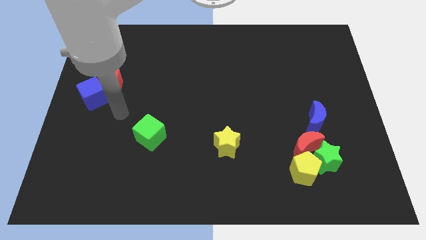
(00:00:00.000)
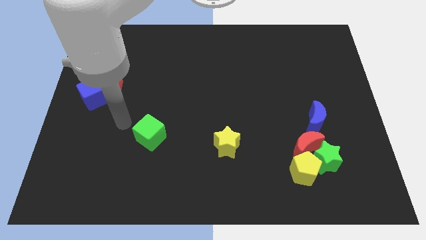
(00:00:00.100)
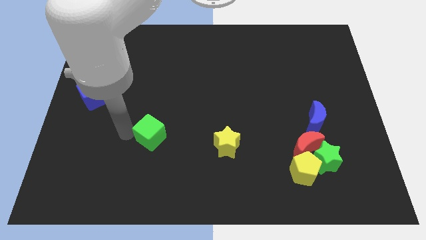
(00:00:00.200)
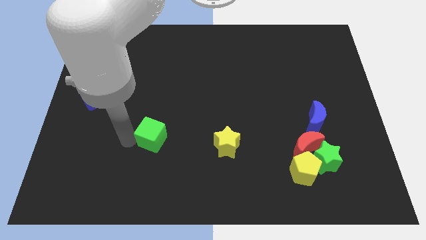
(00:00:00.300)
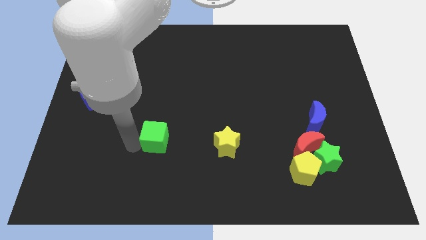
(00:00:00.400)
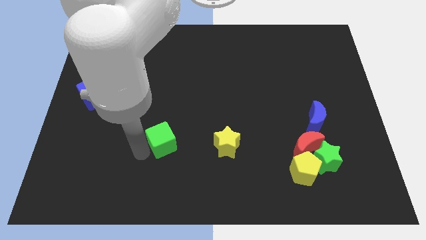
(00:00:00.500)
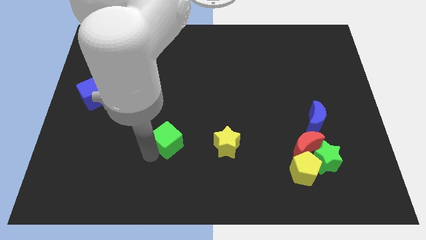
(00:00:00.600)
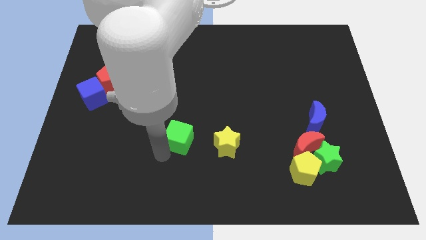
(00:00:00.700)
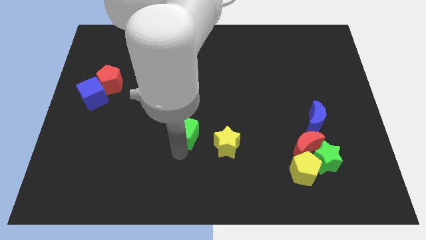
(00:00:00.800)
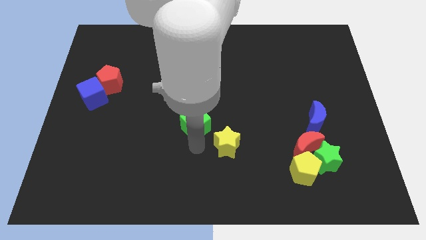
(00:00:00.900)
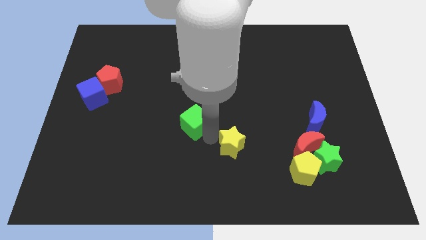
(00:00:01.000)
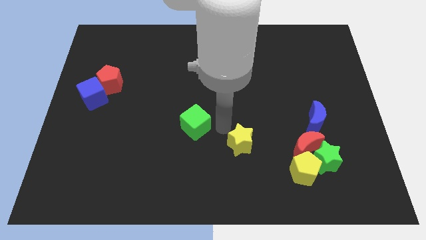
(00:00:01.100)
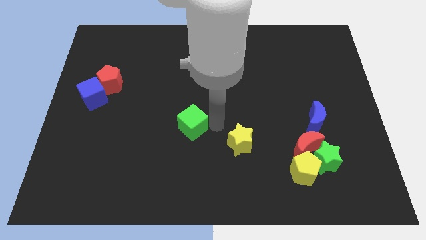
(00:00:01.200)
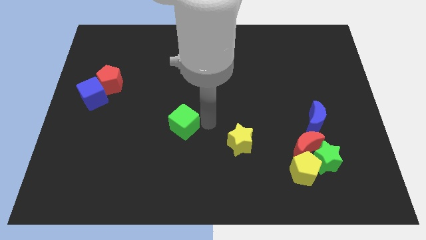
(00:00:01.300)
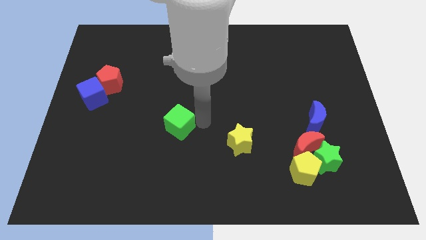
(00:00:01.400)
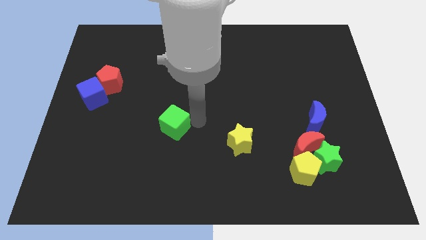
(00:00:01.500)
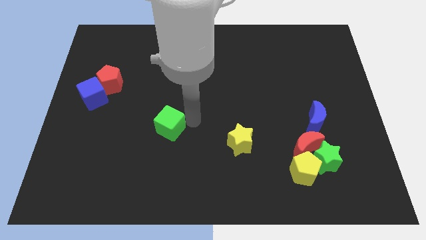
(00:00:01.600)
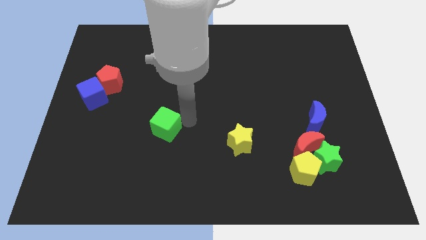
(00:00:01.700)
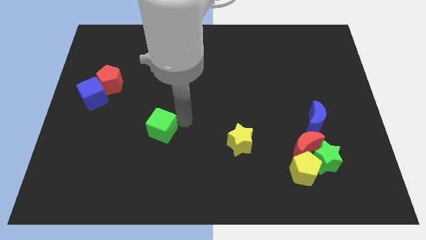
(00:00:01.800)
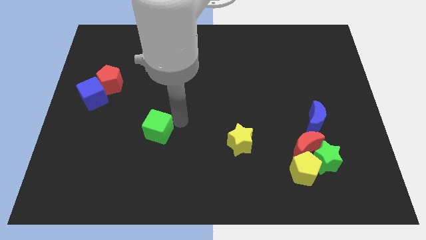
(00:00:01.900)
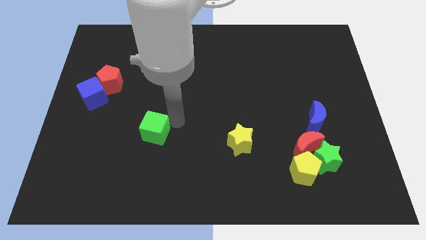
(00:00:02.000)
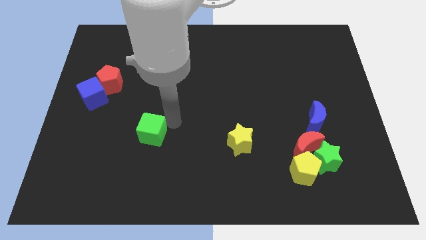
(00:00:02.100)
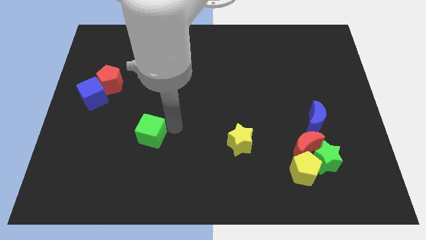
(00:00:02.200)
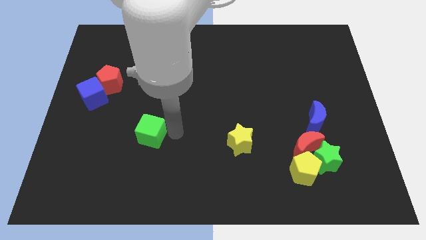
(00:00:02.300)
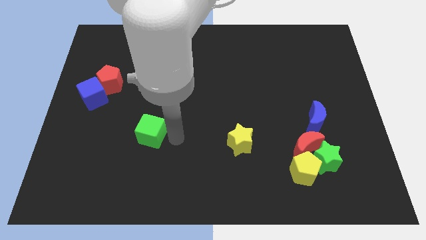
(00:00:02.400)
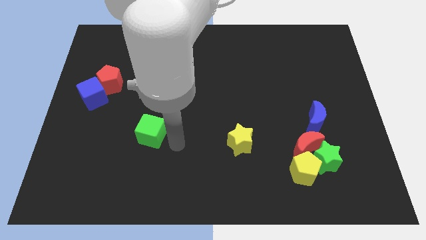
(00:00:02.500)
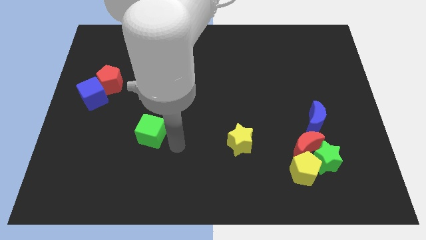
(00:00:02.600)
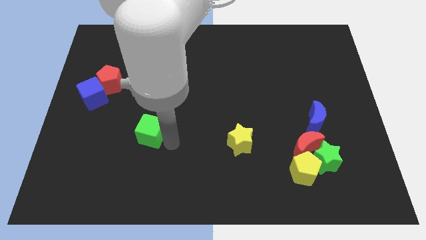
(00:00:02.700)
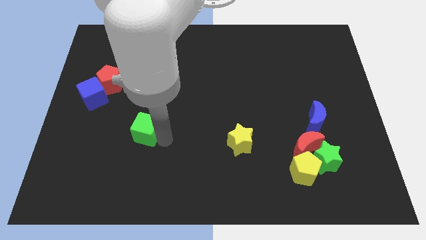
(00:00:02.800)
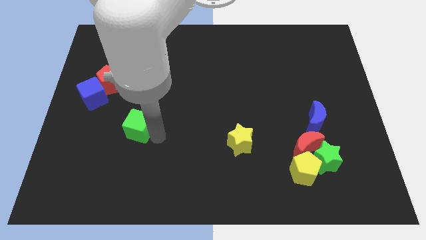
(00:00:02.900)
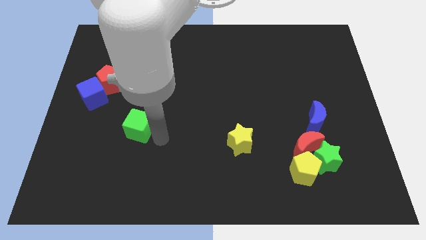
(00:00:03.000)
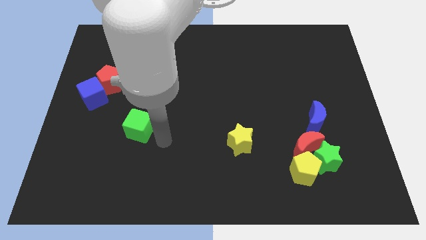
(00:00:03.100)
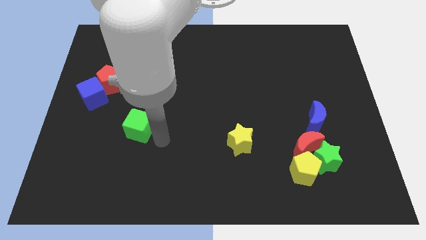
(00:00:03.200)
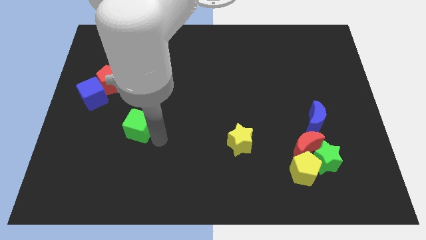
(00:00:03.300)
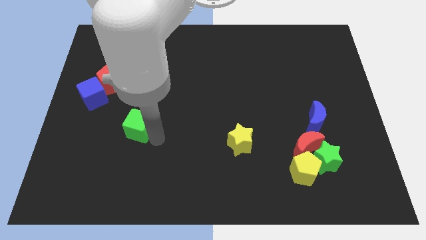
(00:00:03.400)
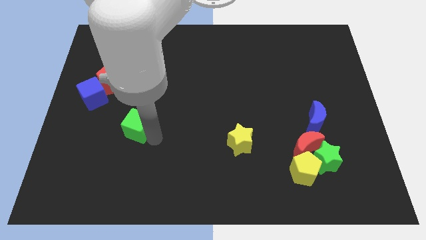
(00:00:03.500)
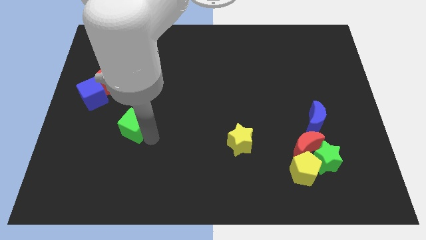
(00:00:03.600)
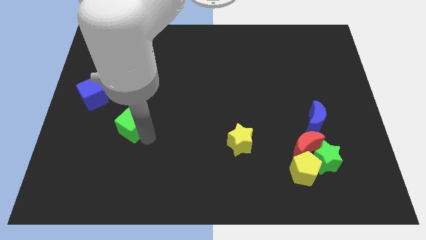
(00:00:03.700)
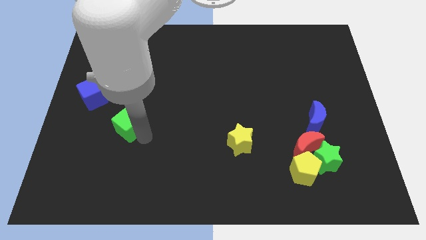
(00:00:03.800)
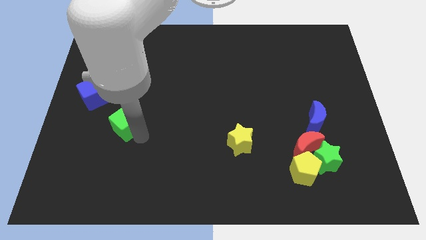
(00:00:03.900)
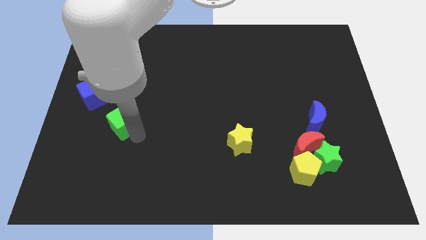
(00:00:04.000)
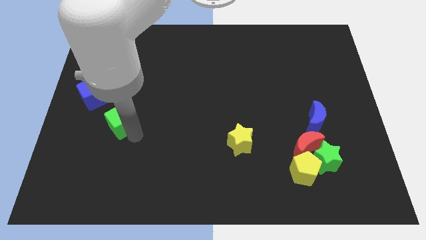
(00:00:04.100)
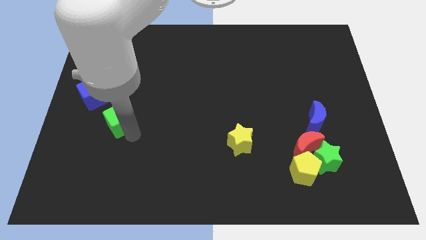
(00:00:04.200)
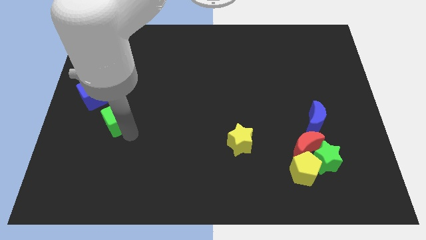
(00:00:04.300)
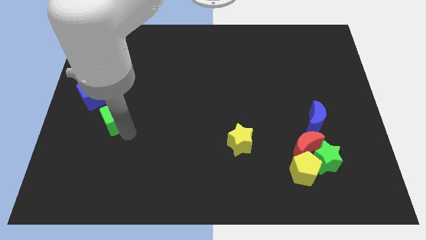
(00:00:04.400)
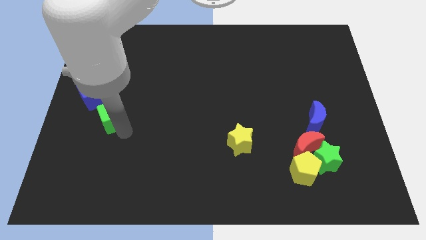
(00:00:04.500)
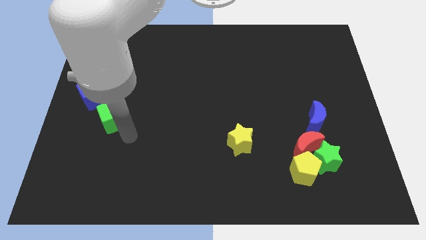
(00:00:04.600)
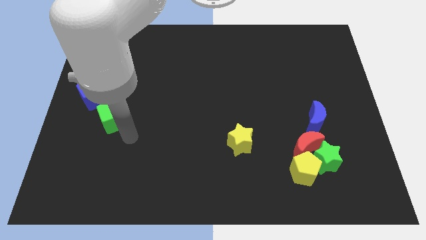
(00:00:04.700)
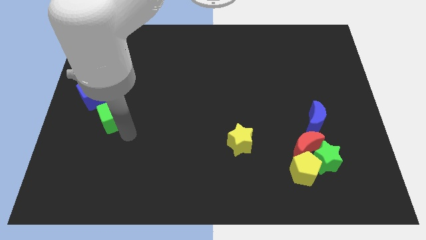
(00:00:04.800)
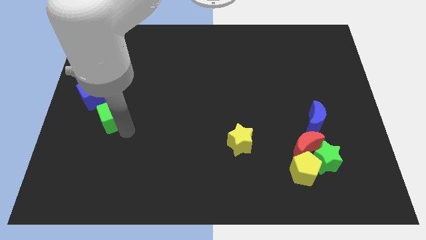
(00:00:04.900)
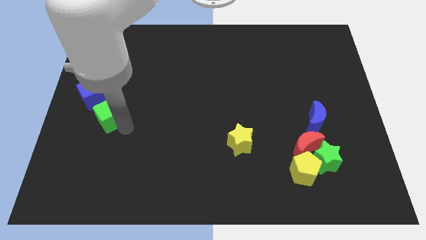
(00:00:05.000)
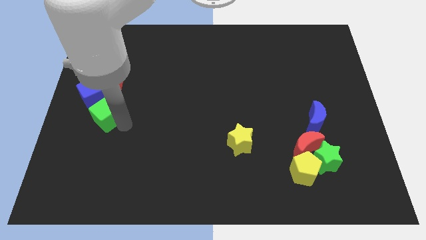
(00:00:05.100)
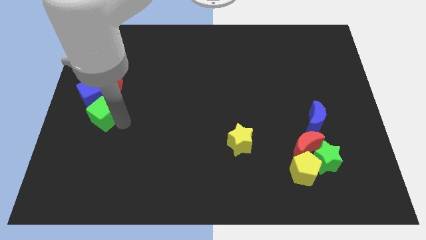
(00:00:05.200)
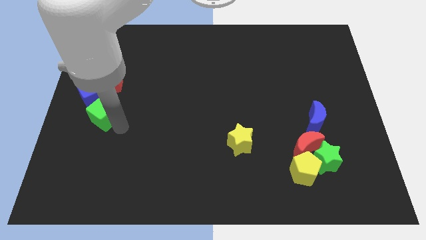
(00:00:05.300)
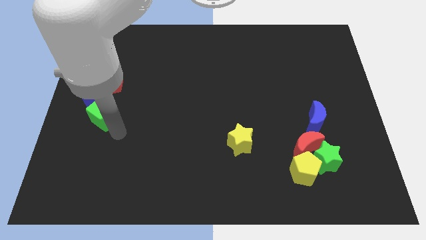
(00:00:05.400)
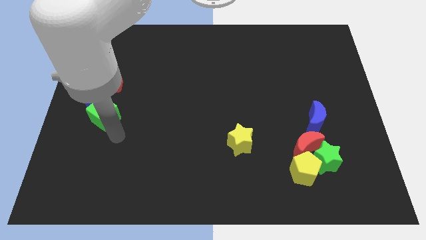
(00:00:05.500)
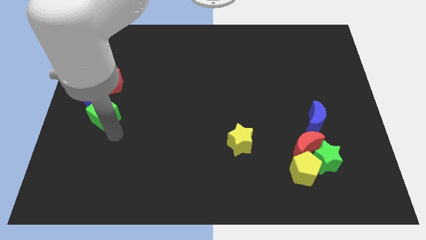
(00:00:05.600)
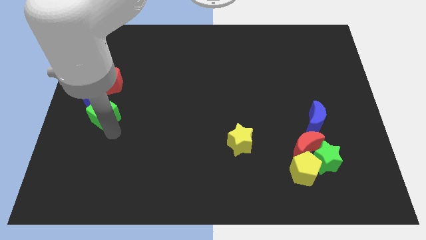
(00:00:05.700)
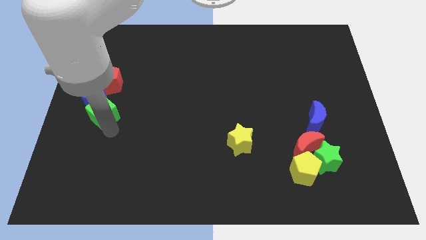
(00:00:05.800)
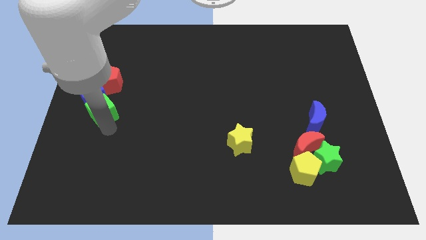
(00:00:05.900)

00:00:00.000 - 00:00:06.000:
slide the green cube towards the blue cube
